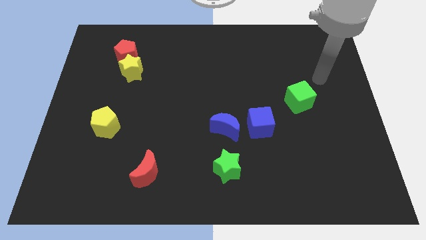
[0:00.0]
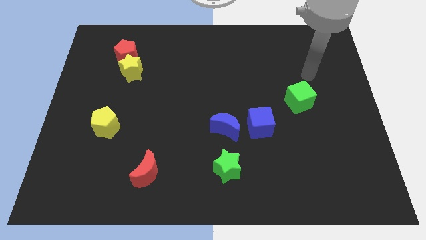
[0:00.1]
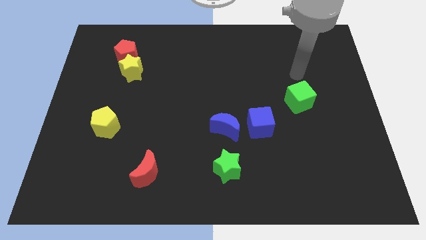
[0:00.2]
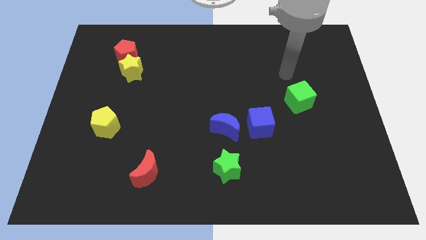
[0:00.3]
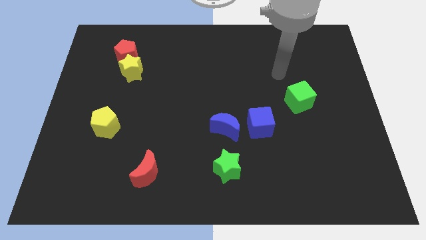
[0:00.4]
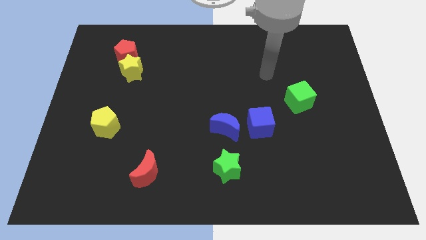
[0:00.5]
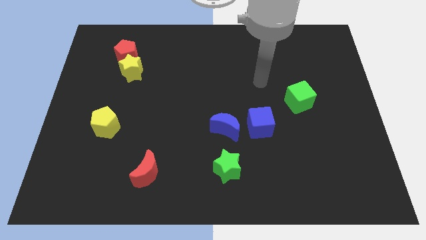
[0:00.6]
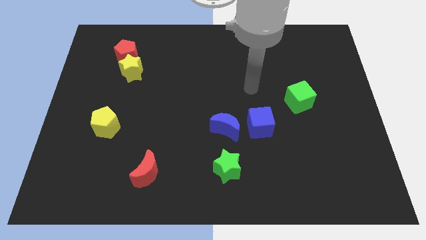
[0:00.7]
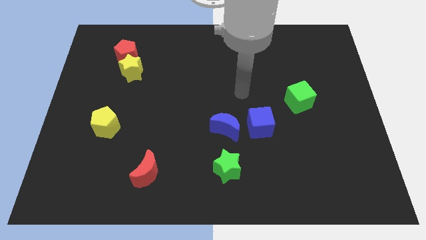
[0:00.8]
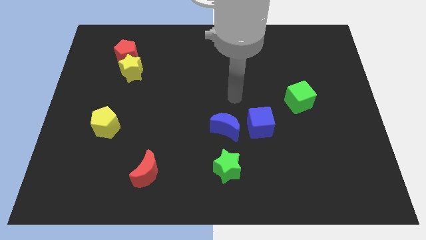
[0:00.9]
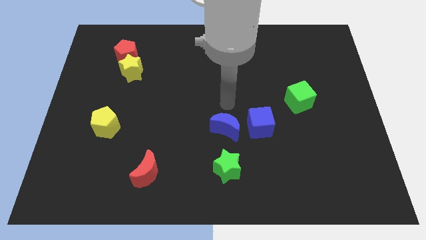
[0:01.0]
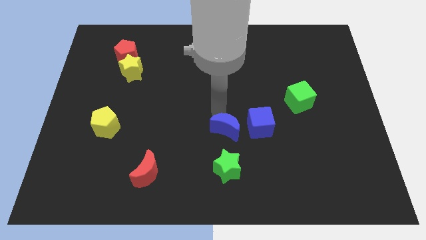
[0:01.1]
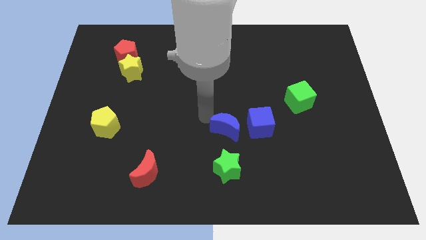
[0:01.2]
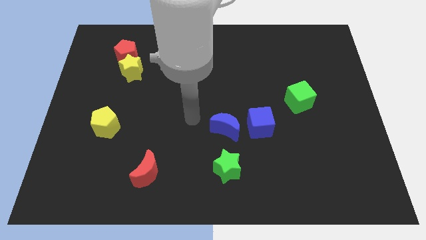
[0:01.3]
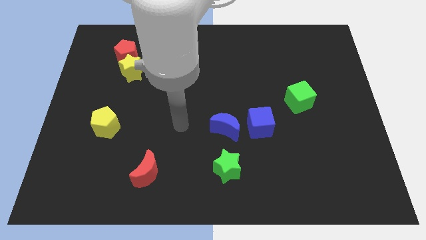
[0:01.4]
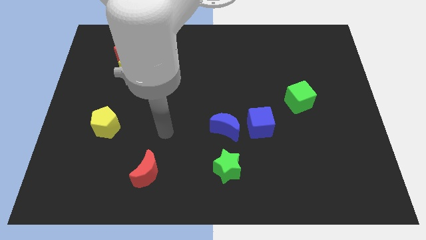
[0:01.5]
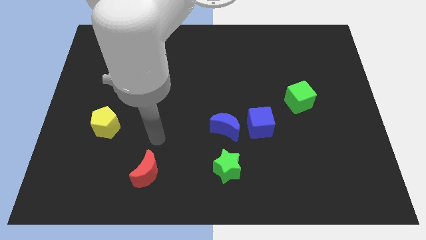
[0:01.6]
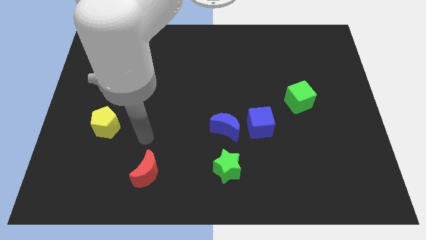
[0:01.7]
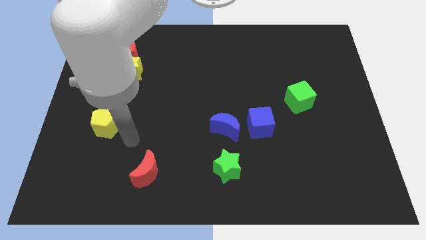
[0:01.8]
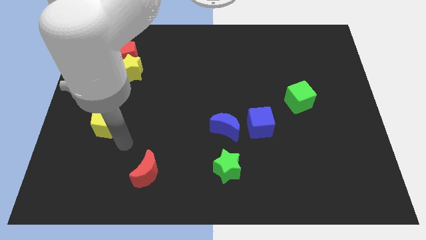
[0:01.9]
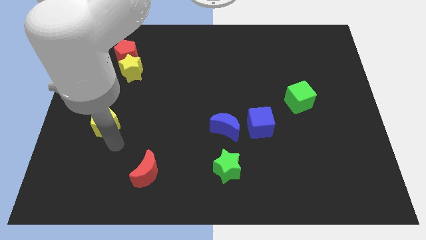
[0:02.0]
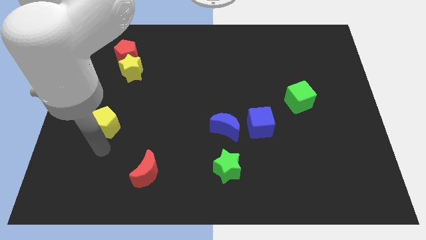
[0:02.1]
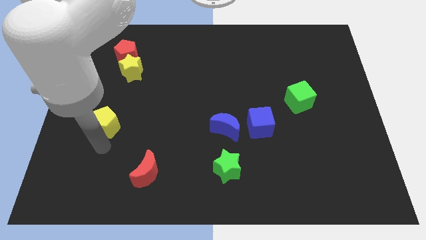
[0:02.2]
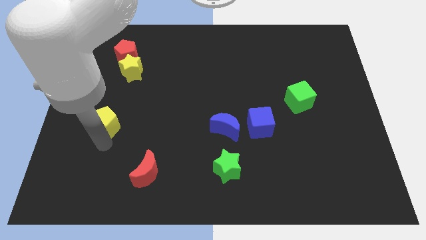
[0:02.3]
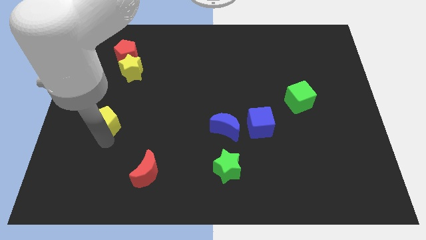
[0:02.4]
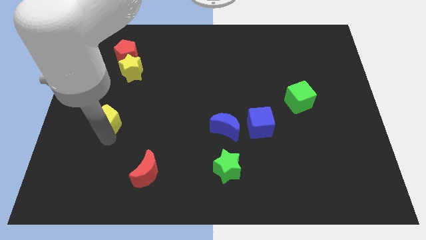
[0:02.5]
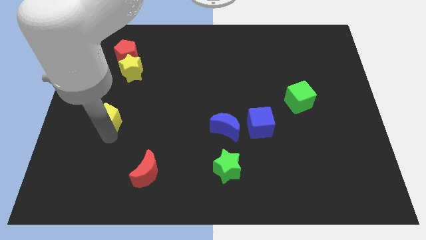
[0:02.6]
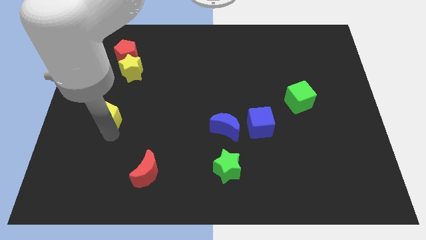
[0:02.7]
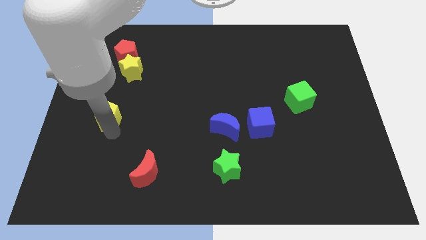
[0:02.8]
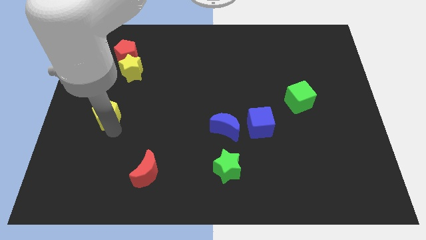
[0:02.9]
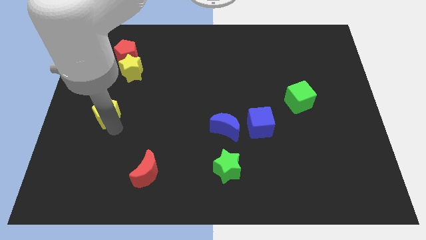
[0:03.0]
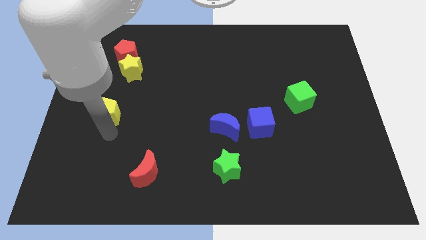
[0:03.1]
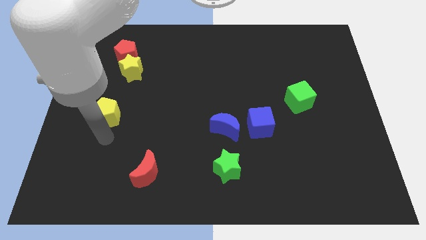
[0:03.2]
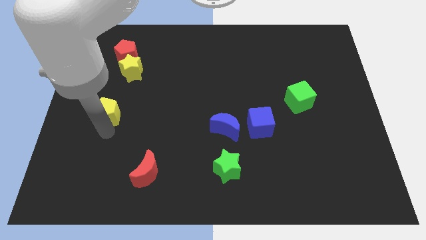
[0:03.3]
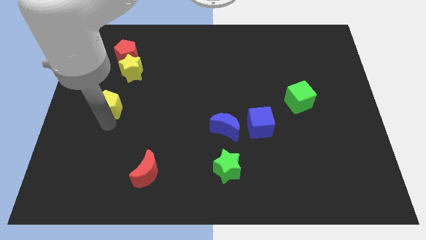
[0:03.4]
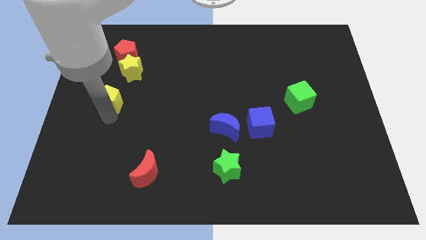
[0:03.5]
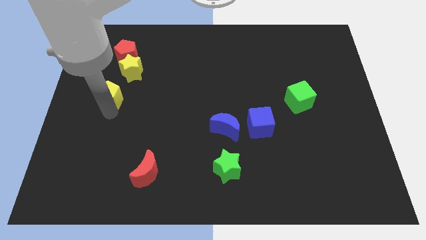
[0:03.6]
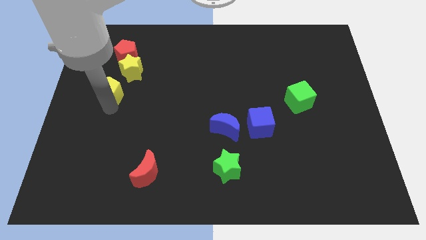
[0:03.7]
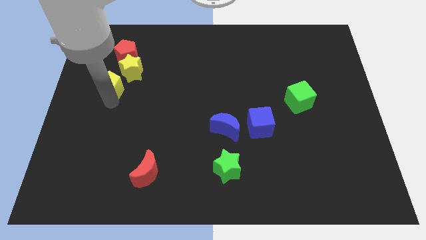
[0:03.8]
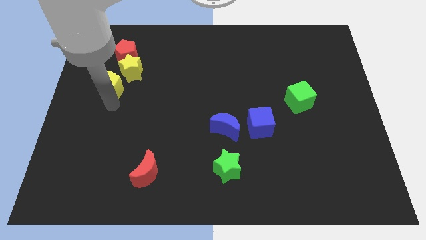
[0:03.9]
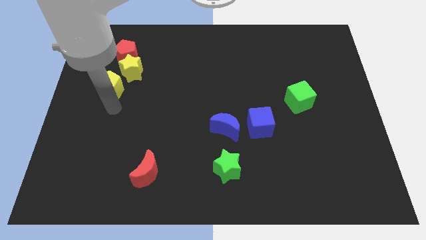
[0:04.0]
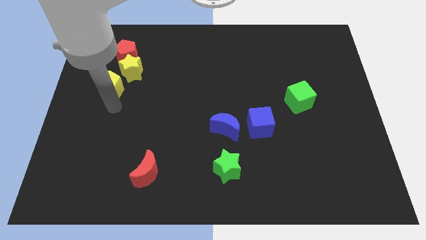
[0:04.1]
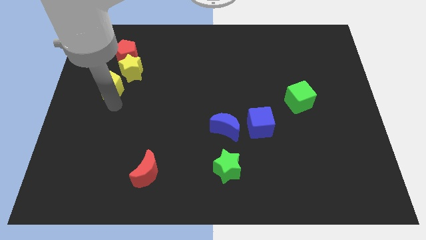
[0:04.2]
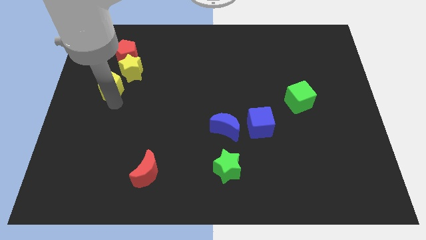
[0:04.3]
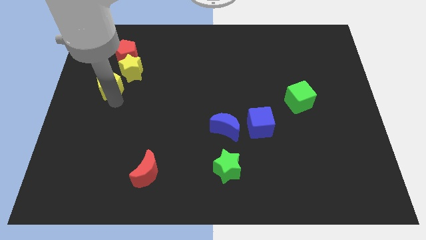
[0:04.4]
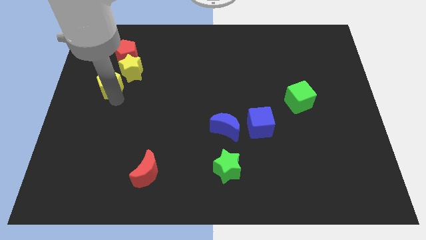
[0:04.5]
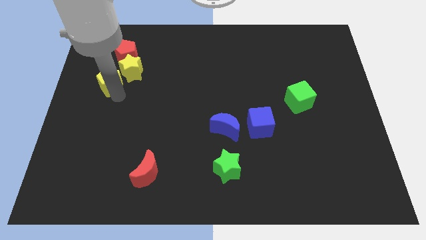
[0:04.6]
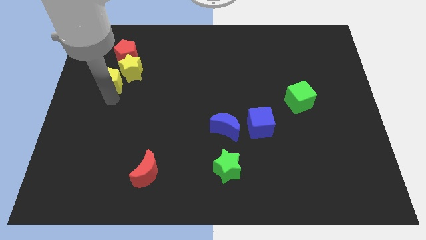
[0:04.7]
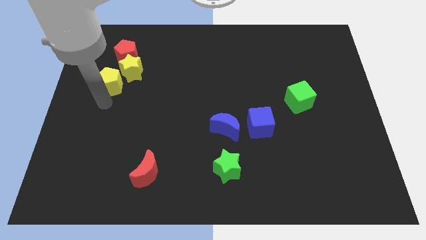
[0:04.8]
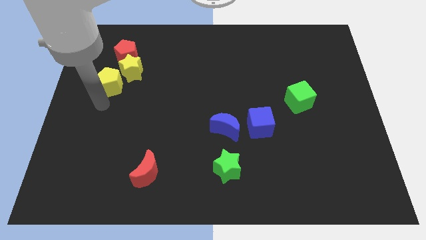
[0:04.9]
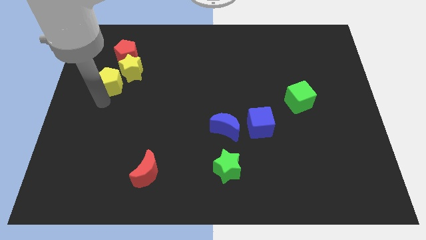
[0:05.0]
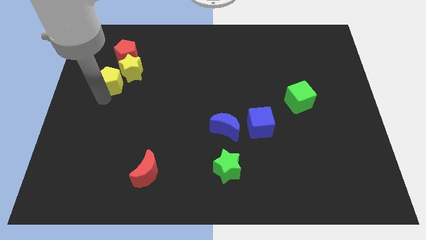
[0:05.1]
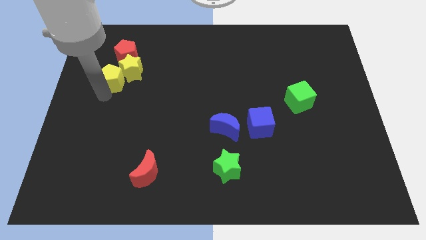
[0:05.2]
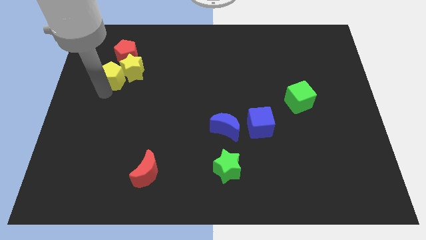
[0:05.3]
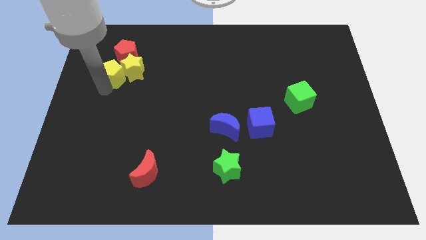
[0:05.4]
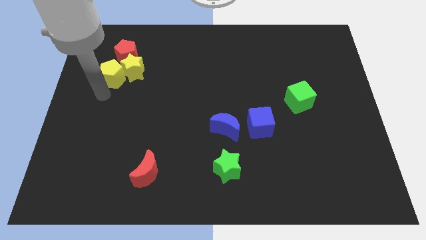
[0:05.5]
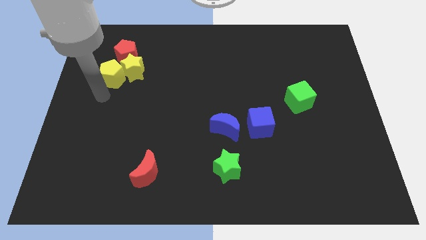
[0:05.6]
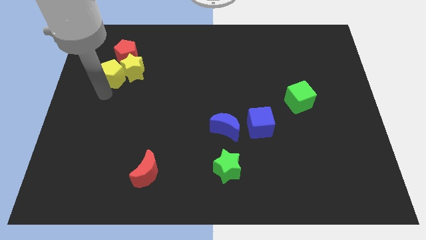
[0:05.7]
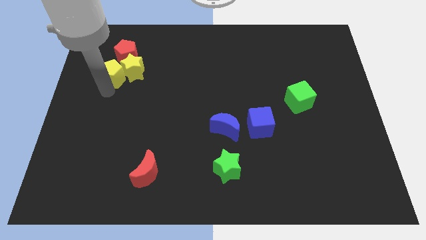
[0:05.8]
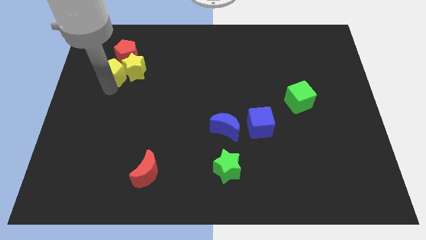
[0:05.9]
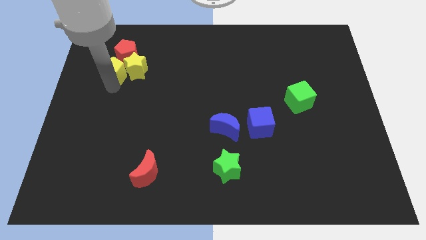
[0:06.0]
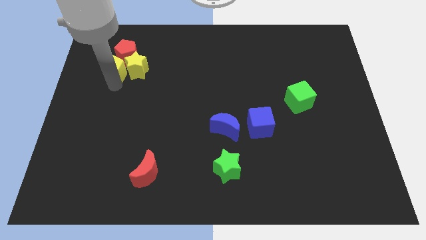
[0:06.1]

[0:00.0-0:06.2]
move the yellow pentagon to the red pentagon

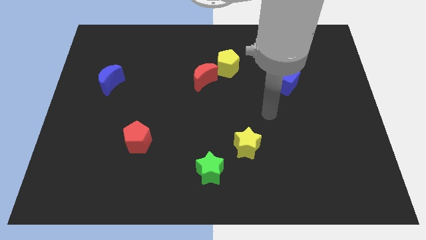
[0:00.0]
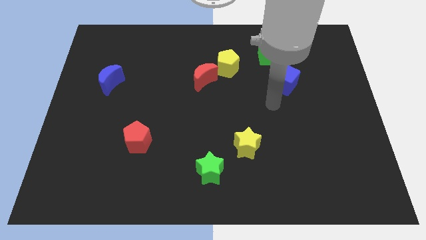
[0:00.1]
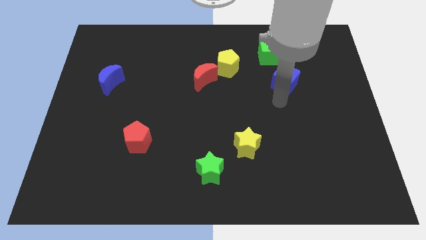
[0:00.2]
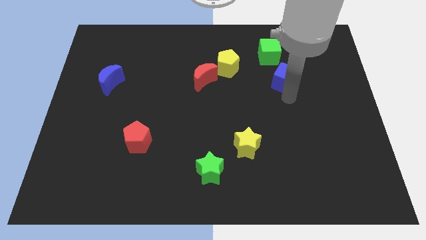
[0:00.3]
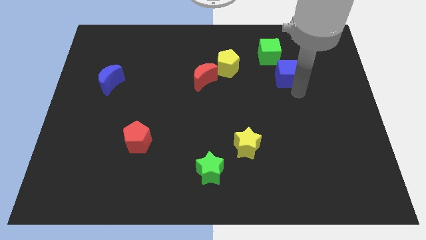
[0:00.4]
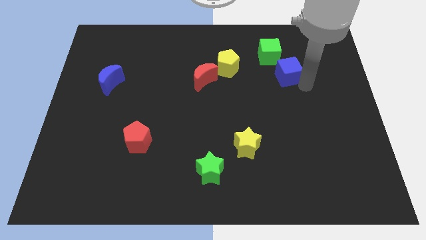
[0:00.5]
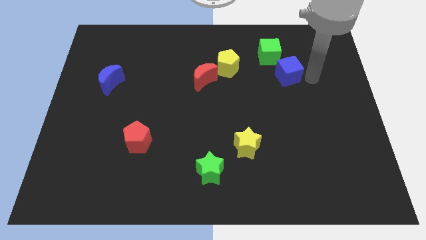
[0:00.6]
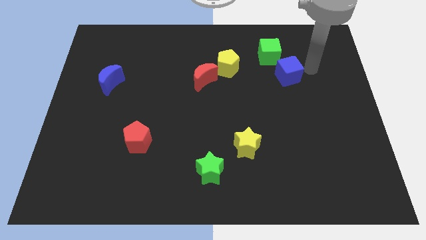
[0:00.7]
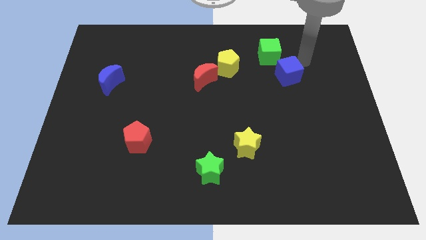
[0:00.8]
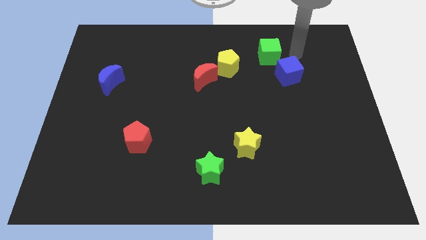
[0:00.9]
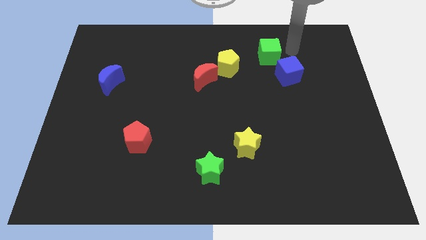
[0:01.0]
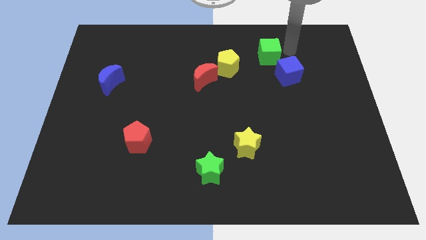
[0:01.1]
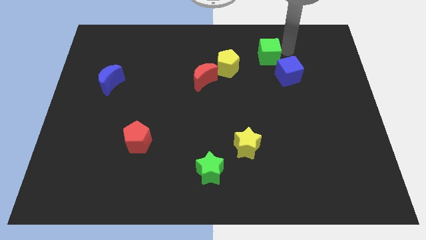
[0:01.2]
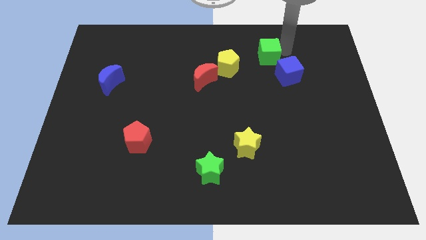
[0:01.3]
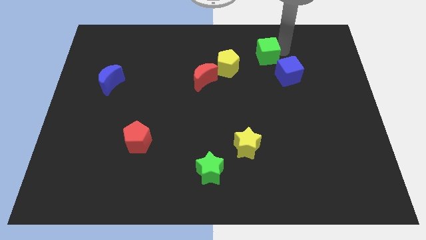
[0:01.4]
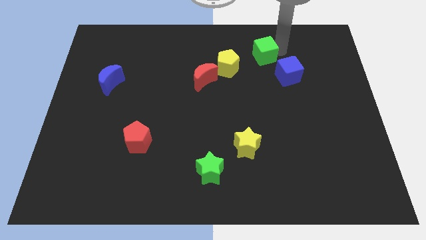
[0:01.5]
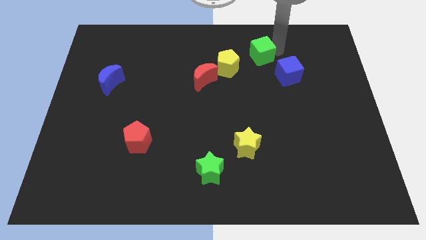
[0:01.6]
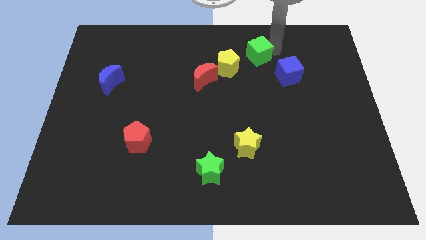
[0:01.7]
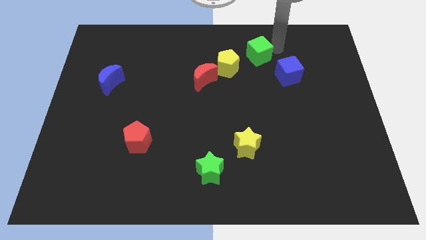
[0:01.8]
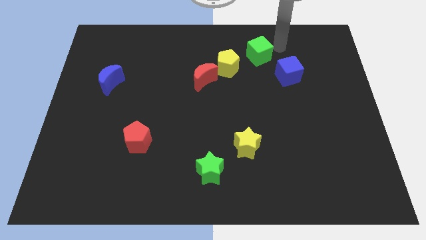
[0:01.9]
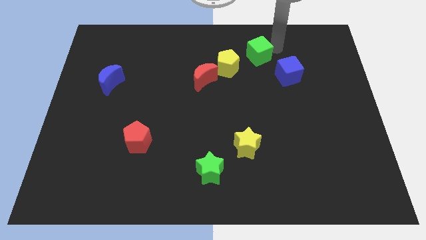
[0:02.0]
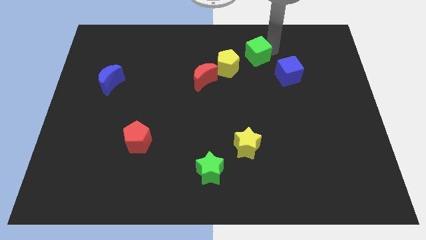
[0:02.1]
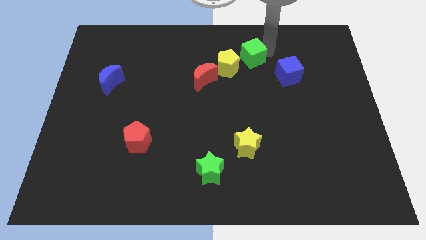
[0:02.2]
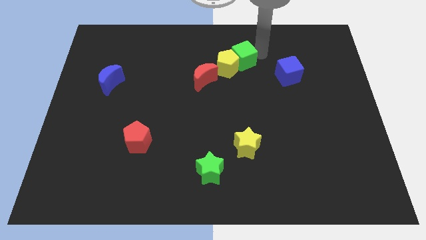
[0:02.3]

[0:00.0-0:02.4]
slide the green cube close to the yellow pentagon
